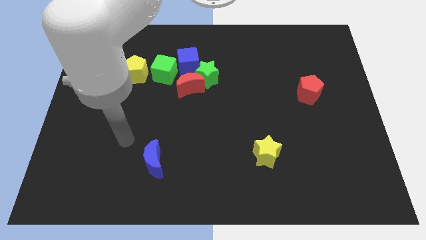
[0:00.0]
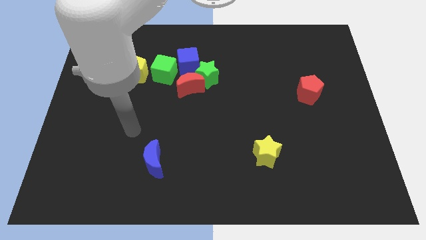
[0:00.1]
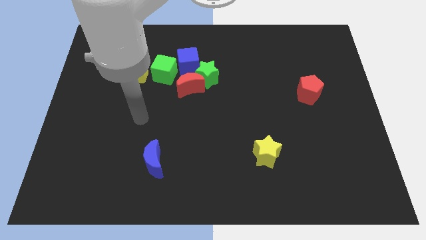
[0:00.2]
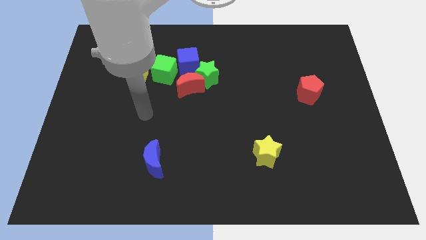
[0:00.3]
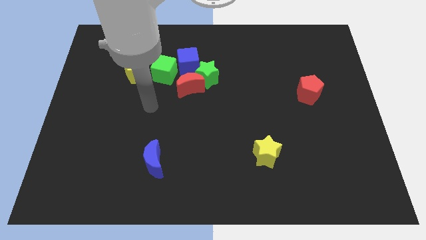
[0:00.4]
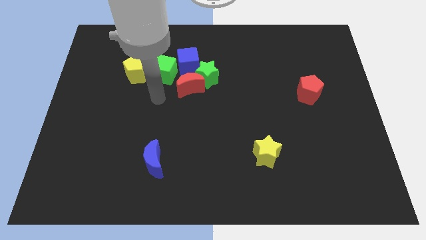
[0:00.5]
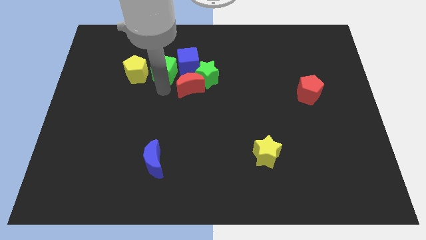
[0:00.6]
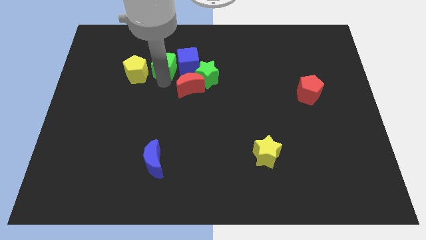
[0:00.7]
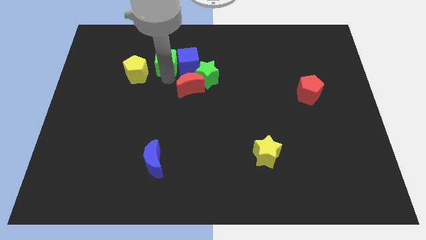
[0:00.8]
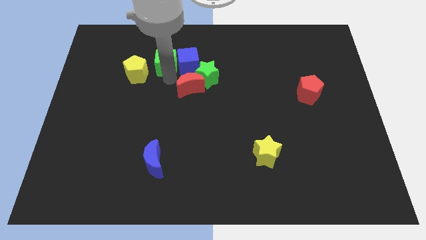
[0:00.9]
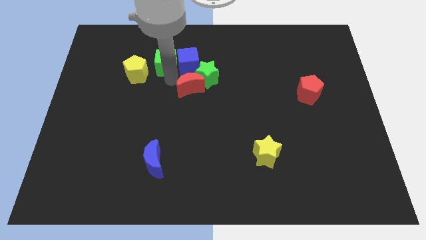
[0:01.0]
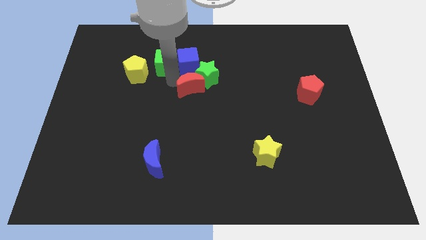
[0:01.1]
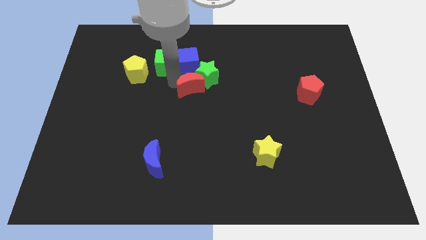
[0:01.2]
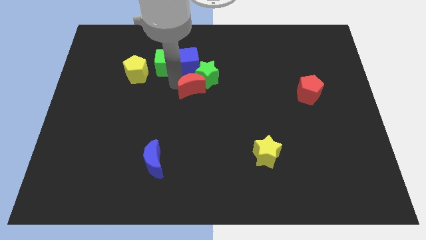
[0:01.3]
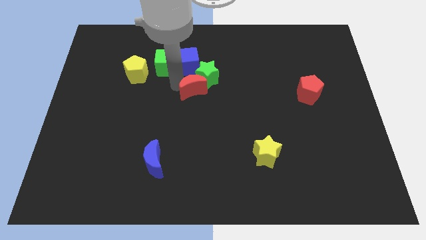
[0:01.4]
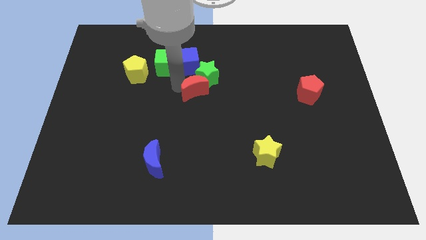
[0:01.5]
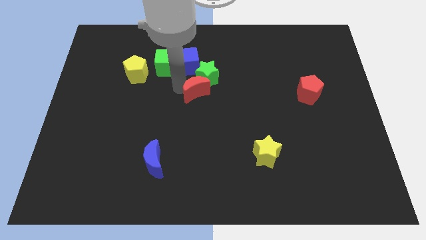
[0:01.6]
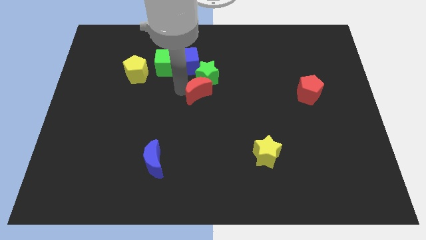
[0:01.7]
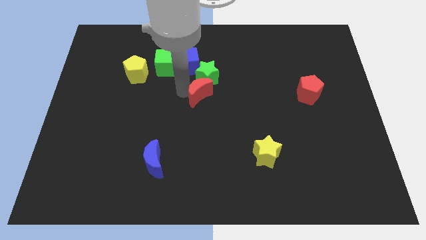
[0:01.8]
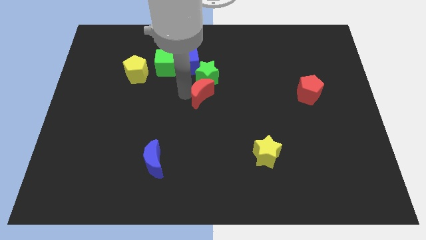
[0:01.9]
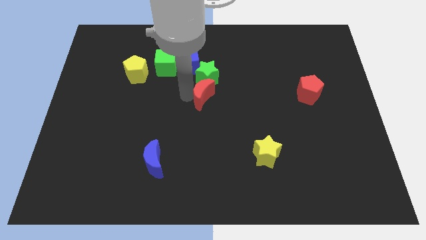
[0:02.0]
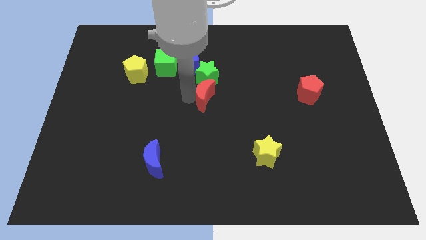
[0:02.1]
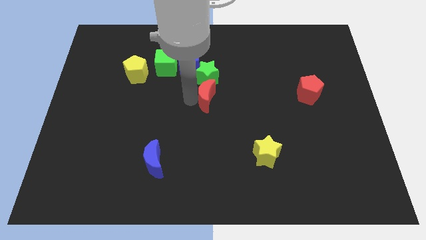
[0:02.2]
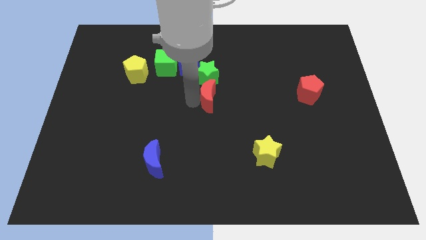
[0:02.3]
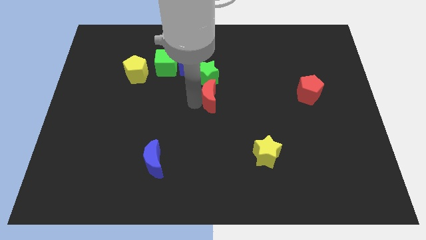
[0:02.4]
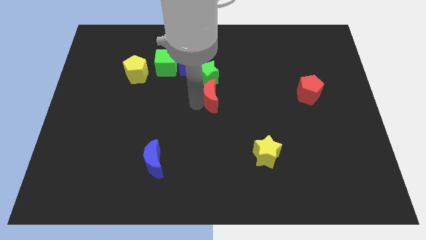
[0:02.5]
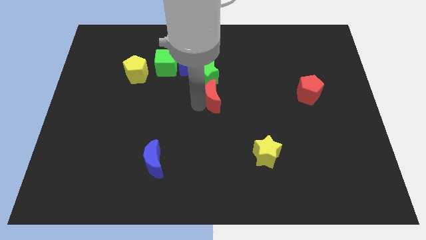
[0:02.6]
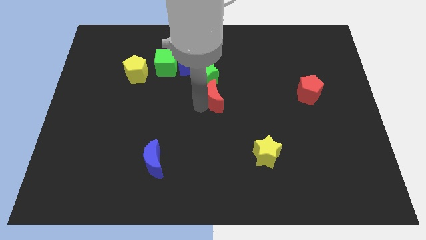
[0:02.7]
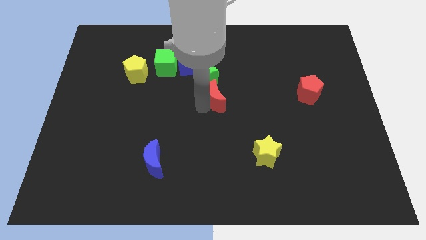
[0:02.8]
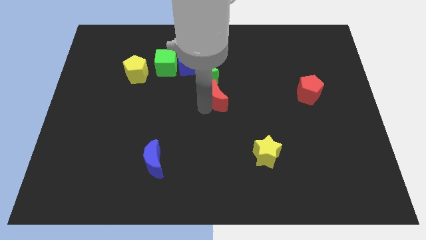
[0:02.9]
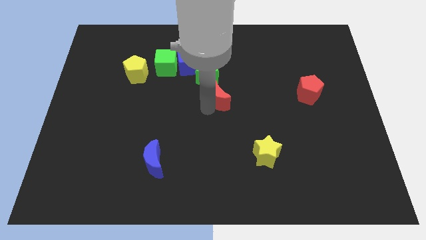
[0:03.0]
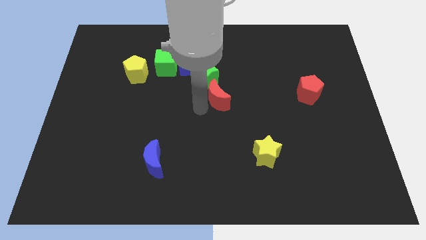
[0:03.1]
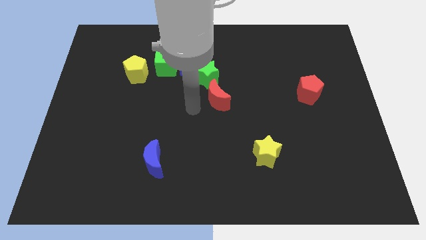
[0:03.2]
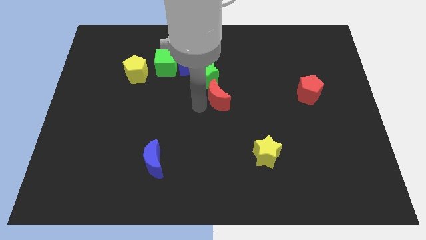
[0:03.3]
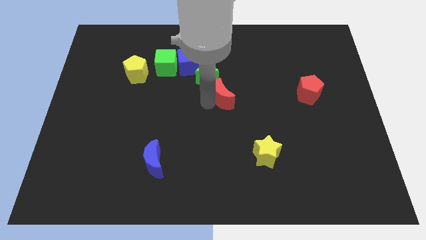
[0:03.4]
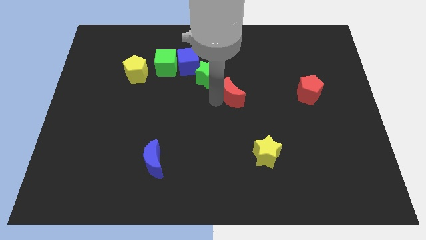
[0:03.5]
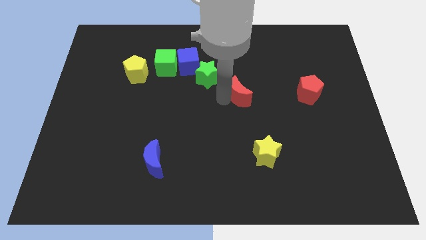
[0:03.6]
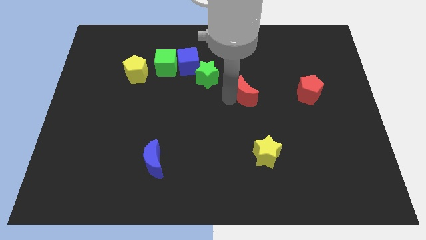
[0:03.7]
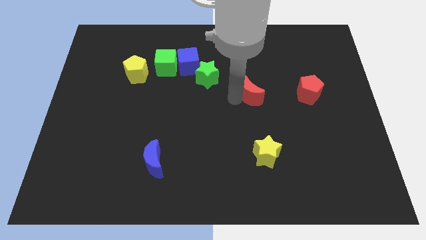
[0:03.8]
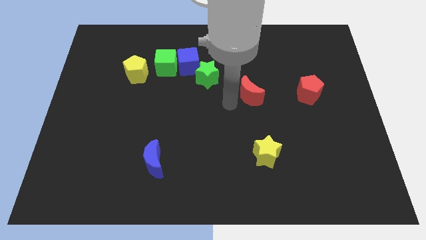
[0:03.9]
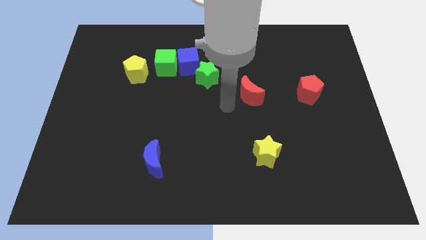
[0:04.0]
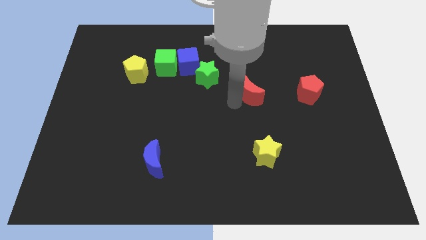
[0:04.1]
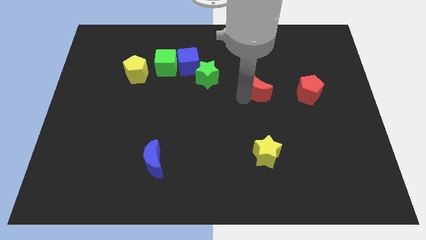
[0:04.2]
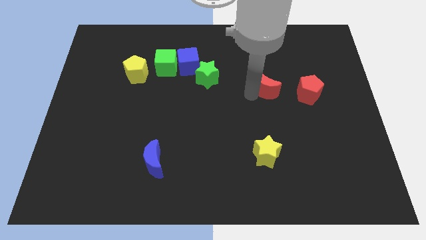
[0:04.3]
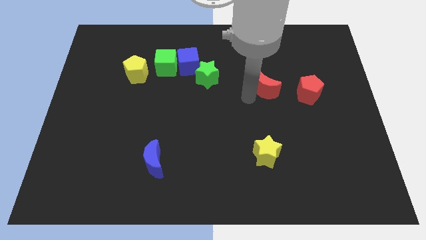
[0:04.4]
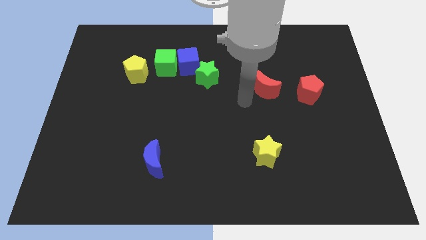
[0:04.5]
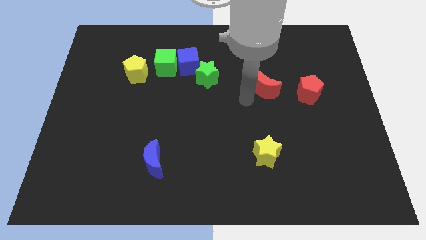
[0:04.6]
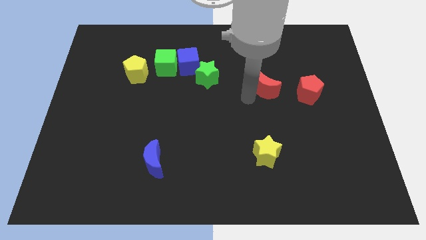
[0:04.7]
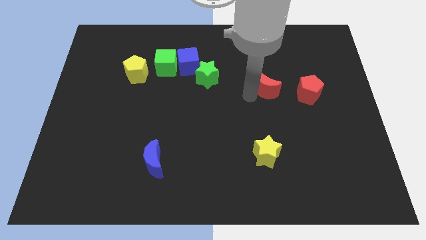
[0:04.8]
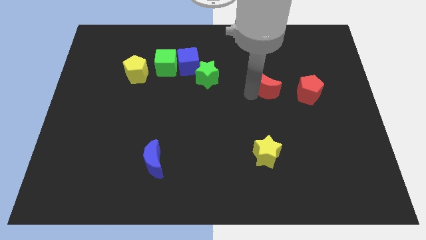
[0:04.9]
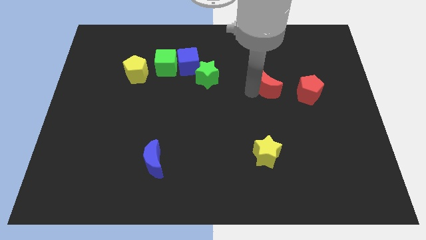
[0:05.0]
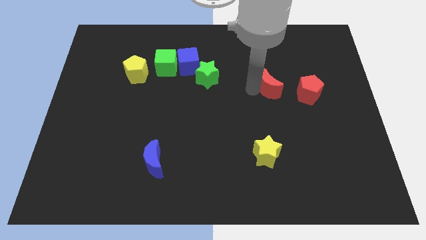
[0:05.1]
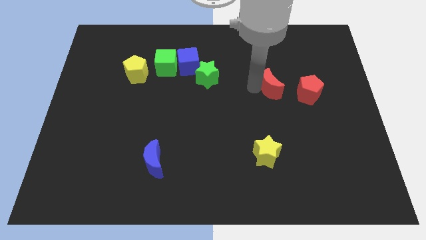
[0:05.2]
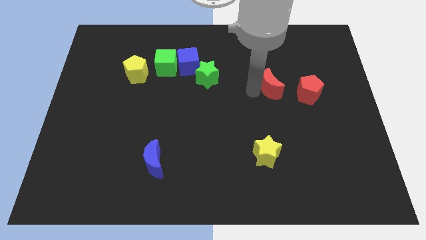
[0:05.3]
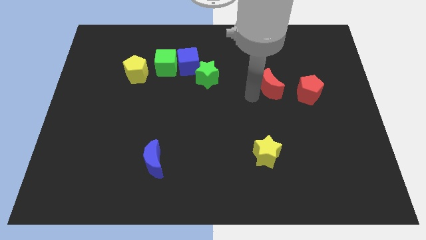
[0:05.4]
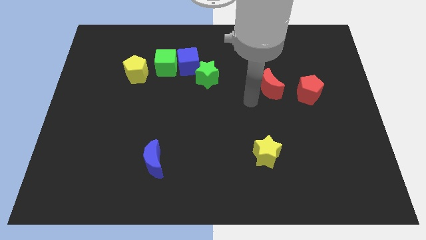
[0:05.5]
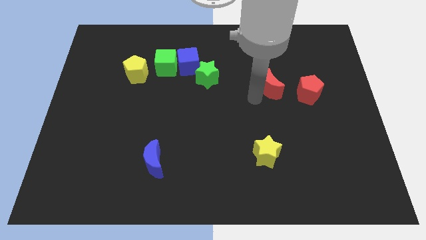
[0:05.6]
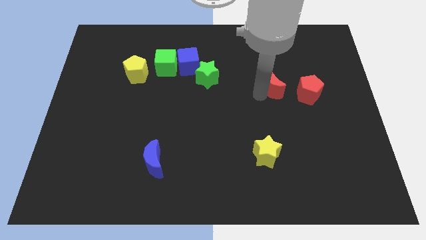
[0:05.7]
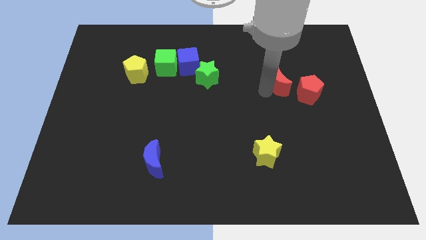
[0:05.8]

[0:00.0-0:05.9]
push the red moon to the top left of the red pentagon

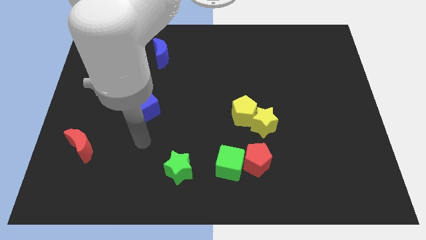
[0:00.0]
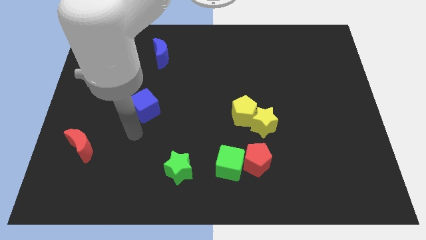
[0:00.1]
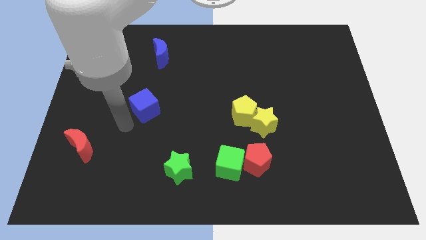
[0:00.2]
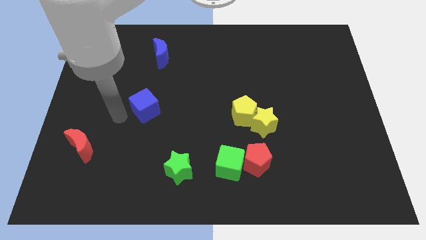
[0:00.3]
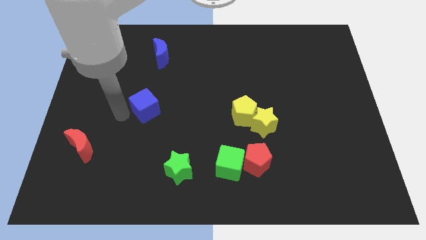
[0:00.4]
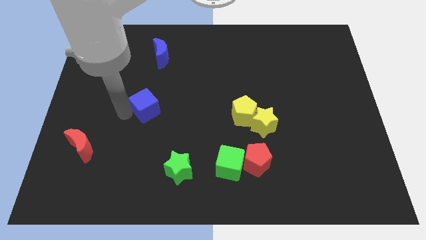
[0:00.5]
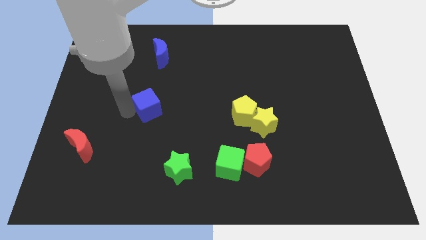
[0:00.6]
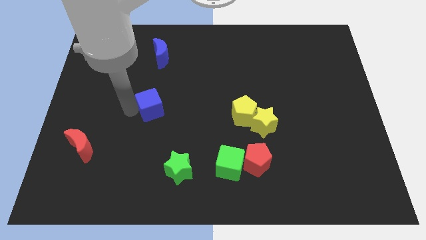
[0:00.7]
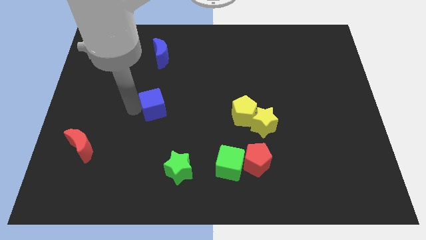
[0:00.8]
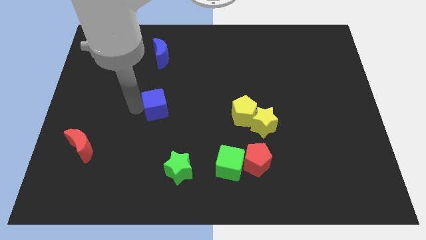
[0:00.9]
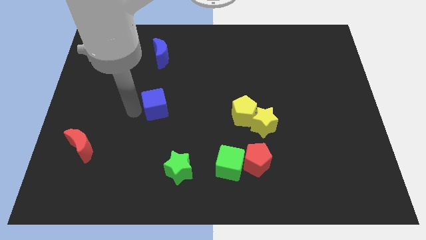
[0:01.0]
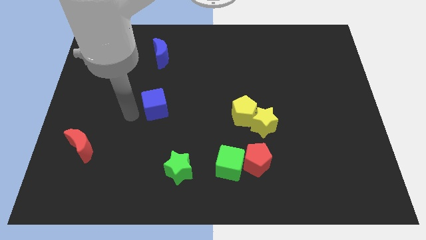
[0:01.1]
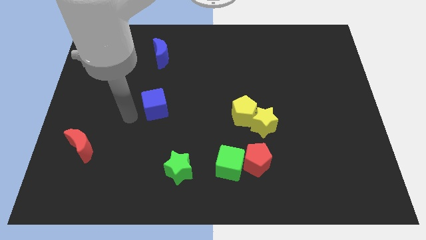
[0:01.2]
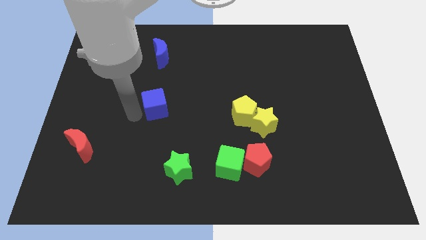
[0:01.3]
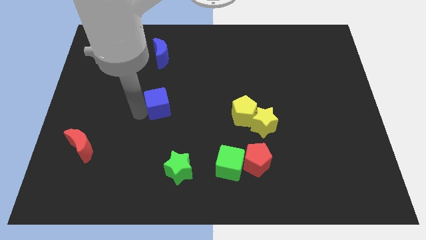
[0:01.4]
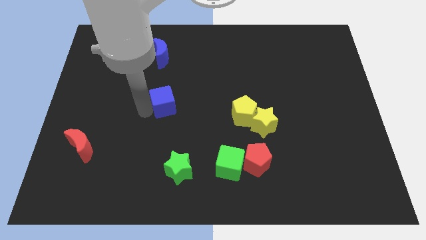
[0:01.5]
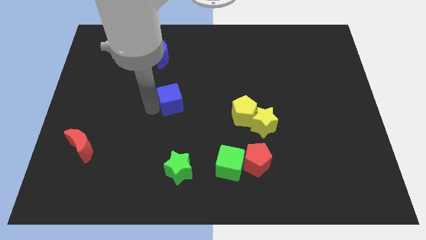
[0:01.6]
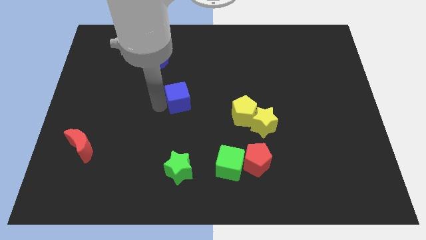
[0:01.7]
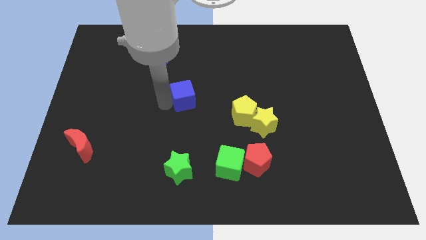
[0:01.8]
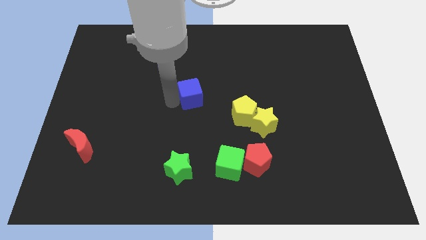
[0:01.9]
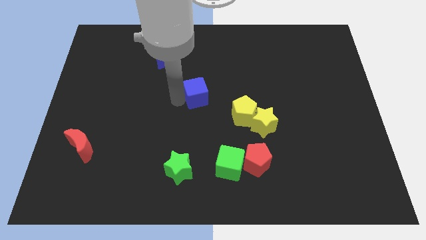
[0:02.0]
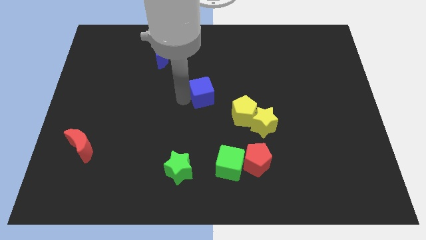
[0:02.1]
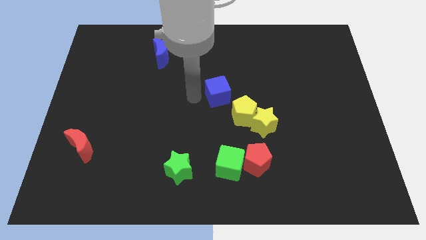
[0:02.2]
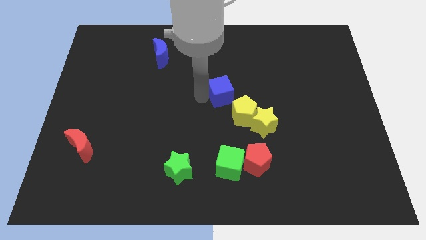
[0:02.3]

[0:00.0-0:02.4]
slide the blue cube above the yellow pentagon
